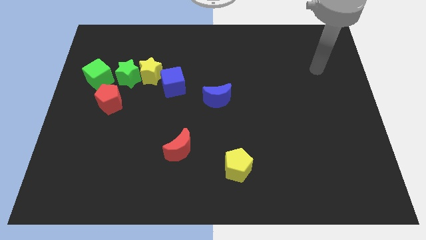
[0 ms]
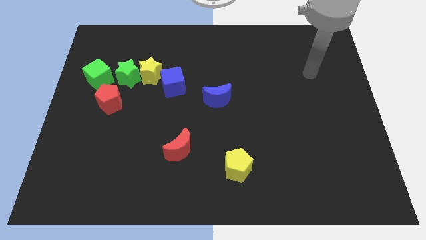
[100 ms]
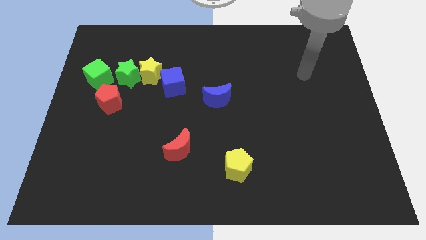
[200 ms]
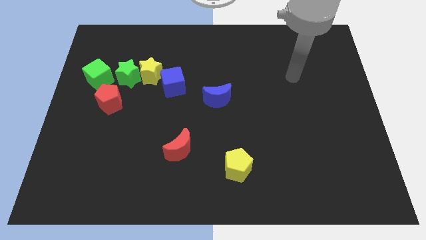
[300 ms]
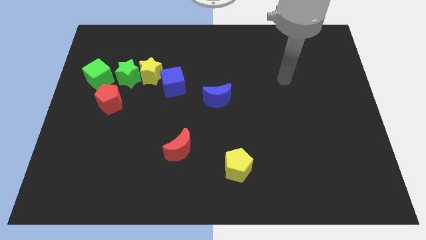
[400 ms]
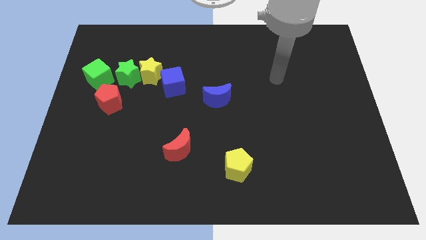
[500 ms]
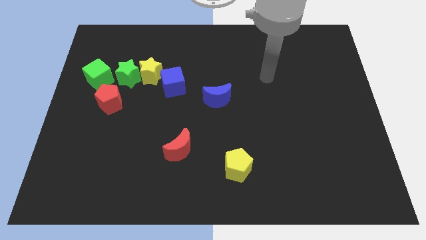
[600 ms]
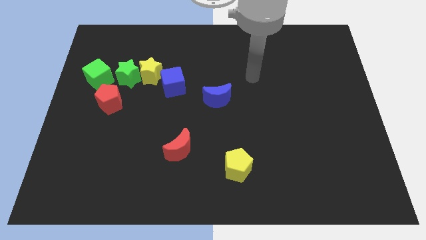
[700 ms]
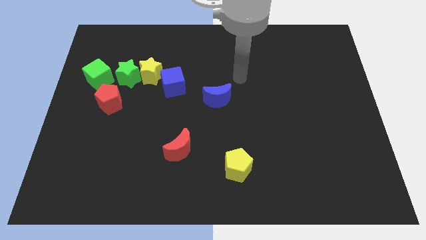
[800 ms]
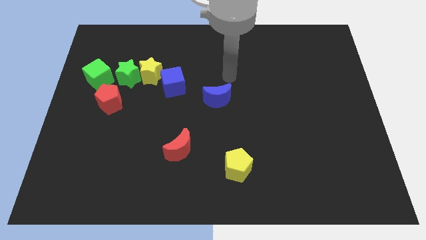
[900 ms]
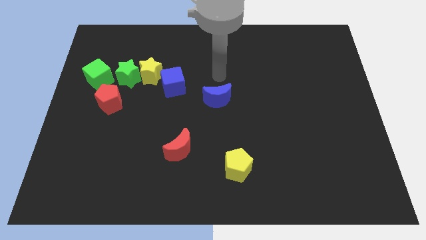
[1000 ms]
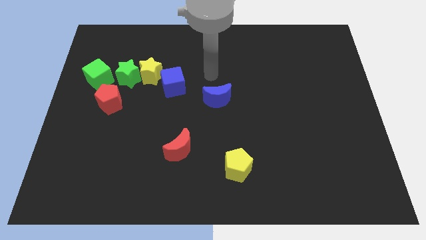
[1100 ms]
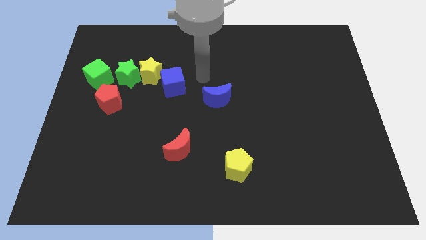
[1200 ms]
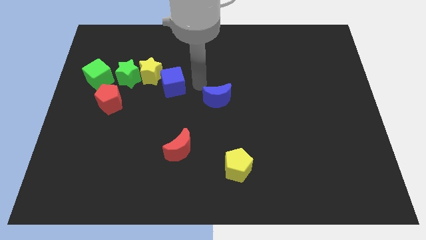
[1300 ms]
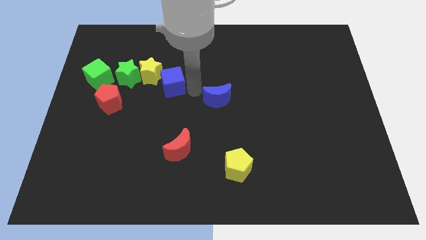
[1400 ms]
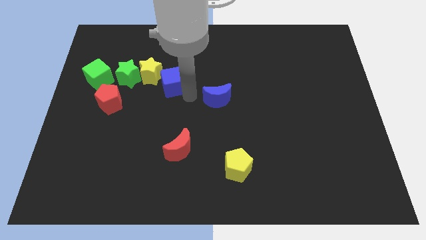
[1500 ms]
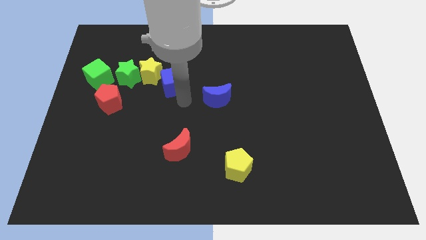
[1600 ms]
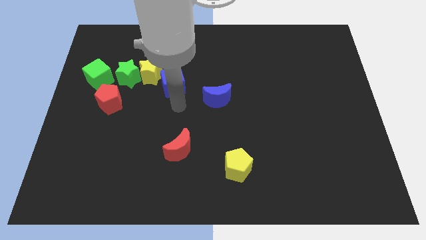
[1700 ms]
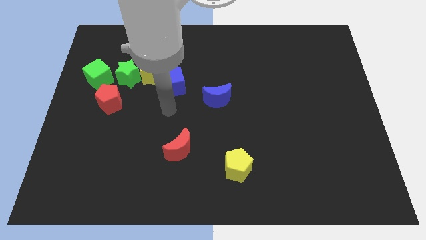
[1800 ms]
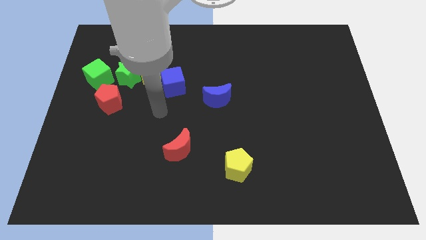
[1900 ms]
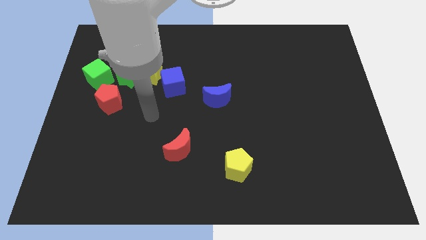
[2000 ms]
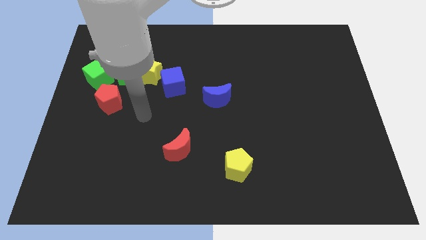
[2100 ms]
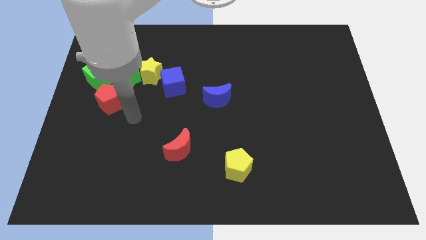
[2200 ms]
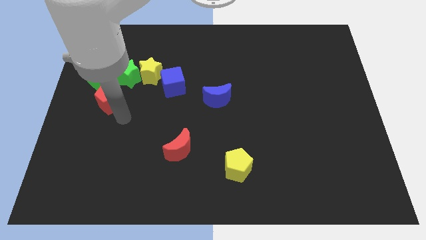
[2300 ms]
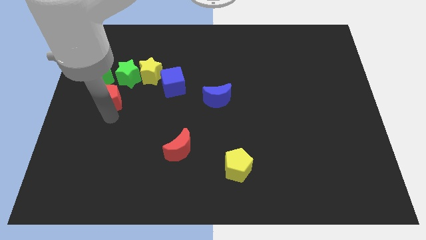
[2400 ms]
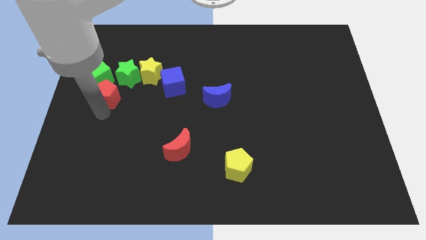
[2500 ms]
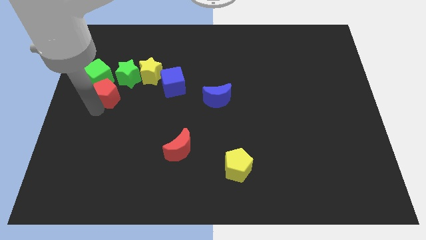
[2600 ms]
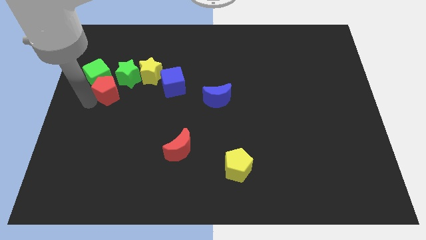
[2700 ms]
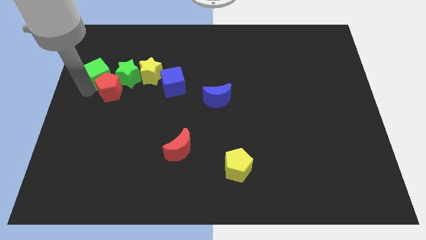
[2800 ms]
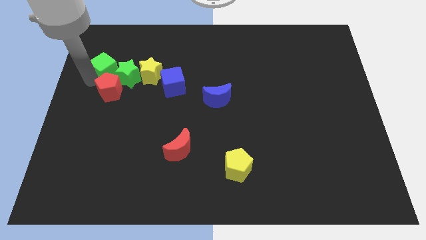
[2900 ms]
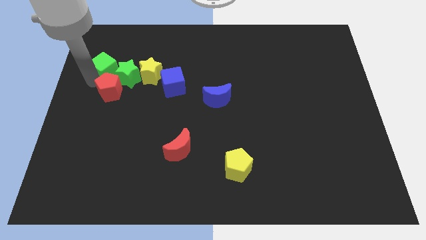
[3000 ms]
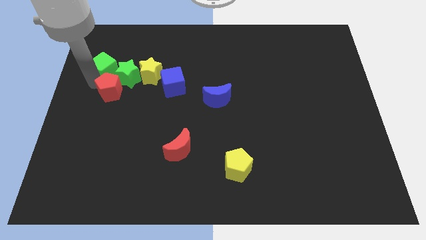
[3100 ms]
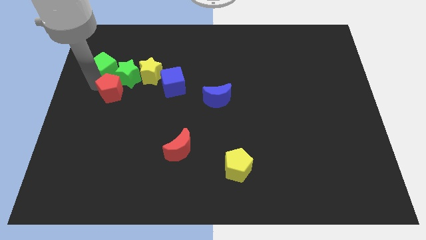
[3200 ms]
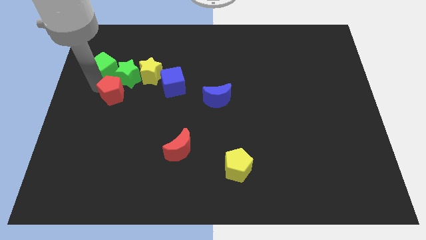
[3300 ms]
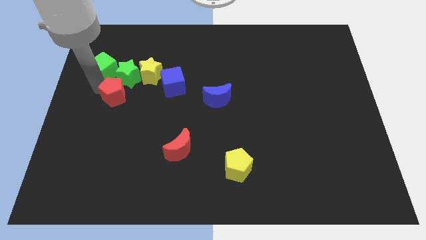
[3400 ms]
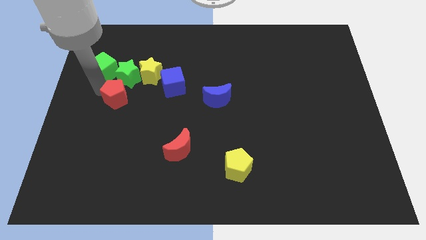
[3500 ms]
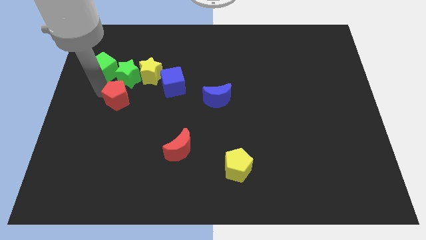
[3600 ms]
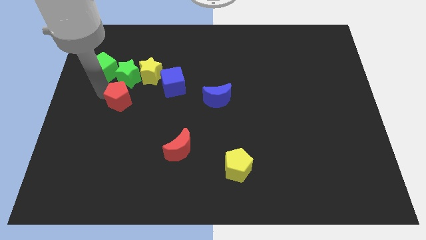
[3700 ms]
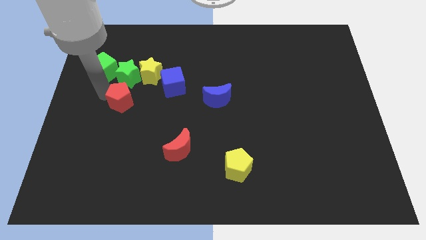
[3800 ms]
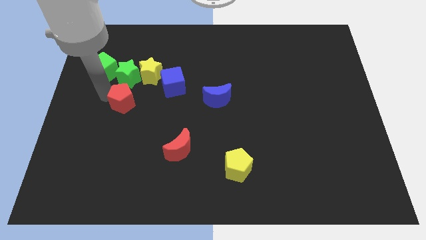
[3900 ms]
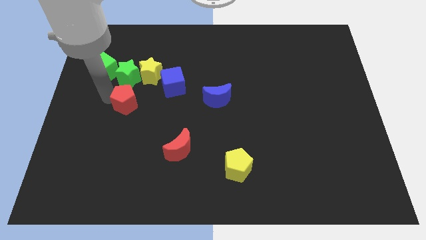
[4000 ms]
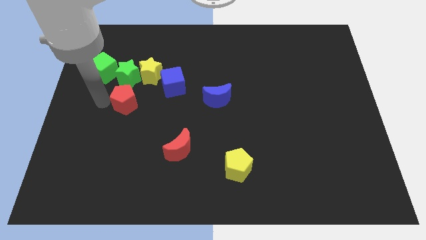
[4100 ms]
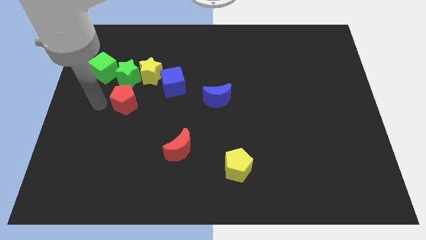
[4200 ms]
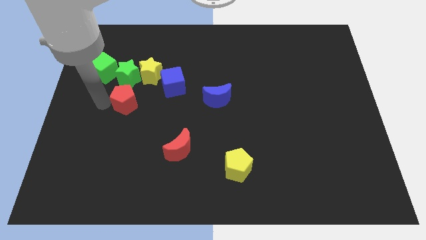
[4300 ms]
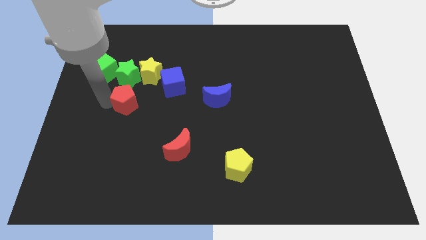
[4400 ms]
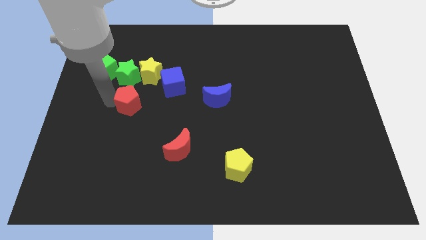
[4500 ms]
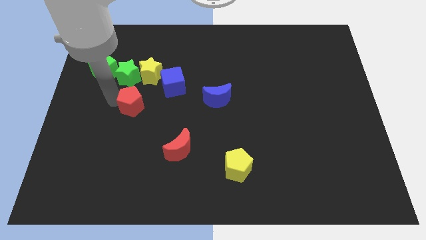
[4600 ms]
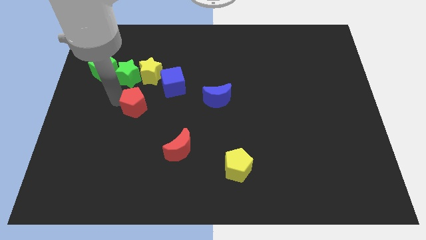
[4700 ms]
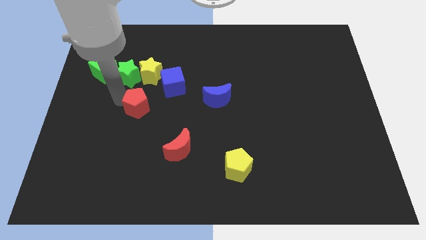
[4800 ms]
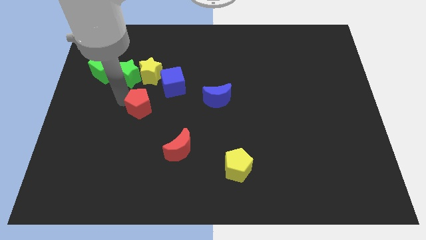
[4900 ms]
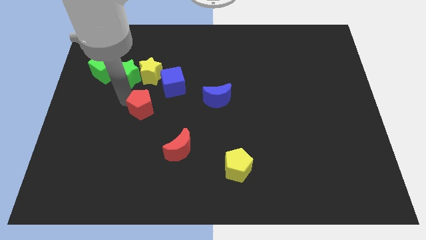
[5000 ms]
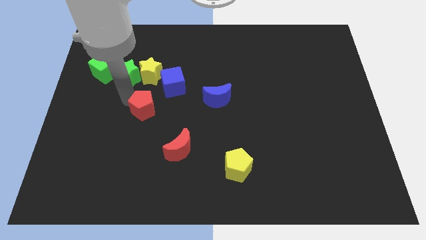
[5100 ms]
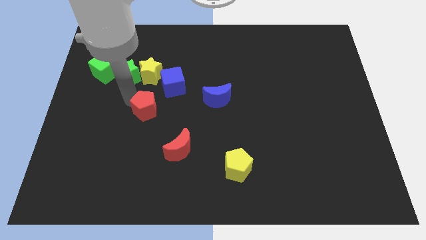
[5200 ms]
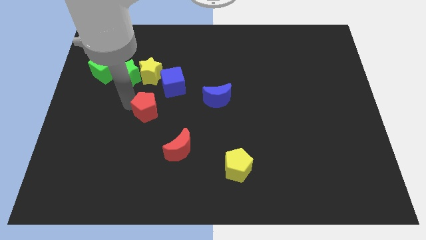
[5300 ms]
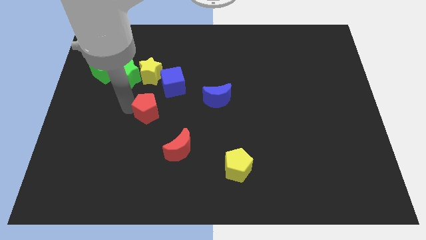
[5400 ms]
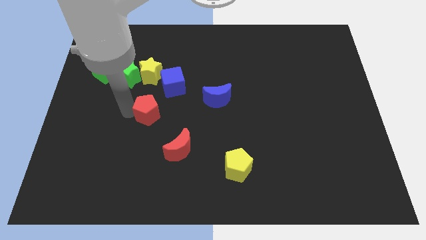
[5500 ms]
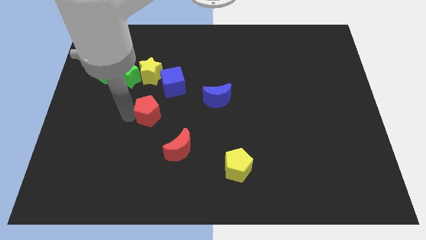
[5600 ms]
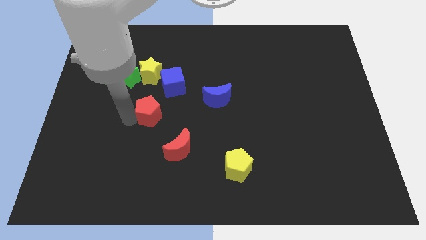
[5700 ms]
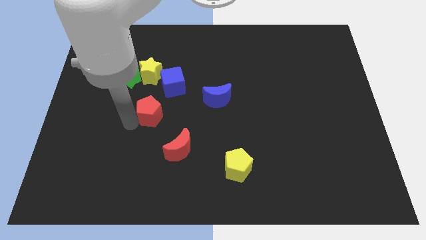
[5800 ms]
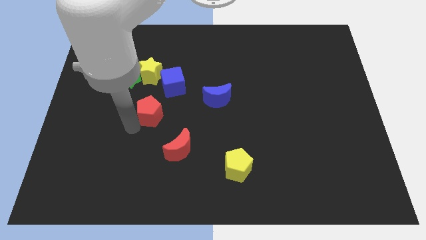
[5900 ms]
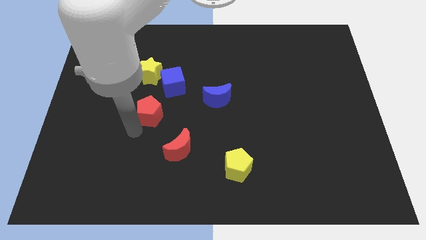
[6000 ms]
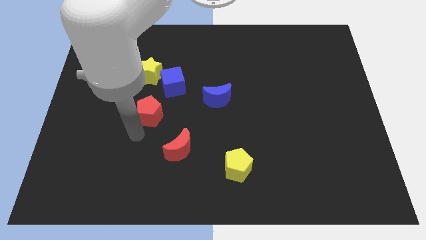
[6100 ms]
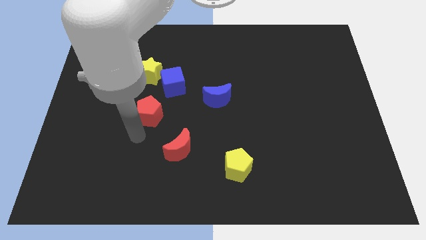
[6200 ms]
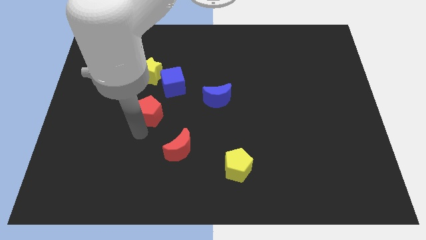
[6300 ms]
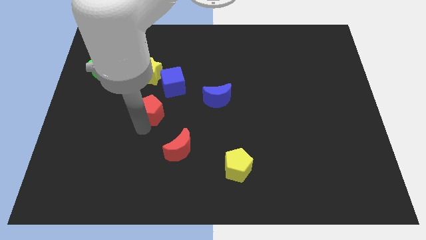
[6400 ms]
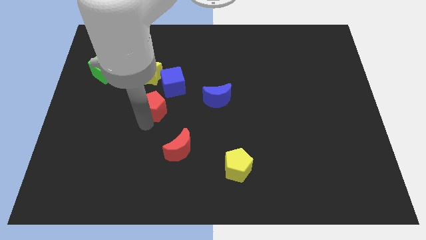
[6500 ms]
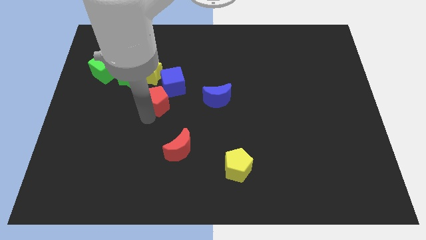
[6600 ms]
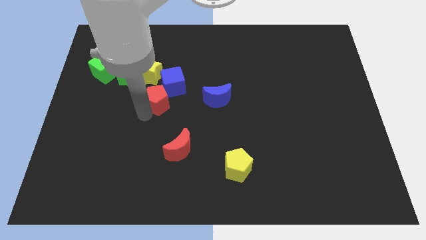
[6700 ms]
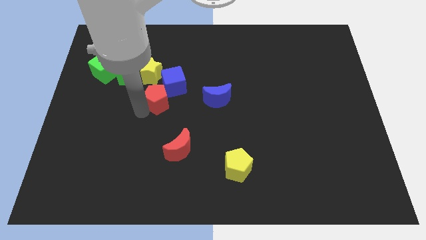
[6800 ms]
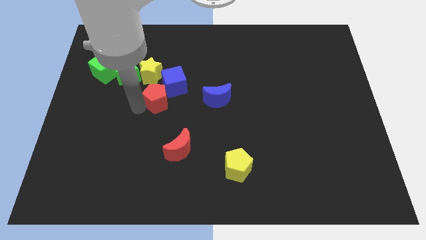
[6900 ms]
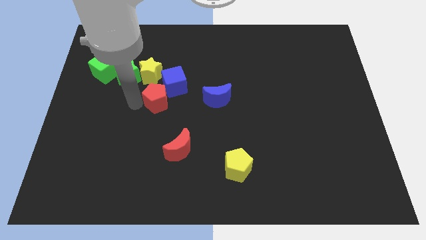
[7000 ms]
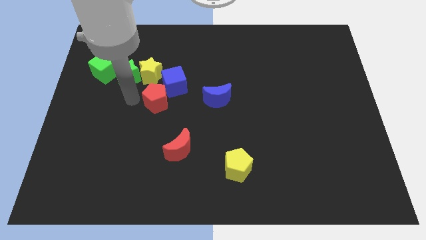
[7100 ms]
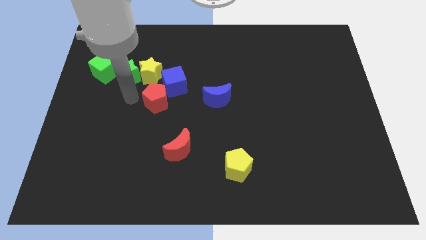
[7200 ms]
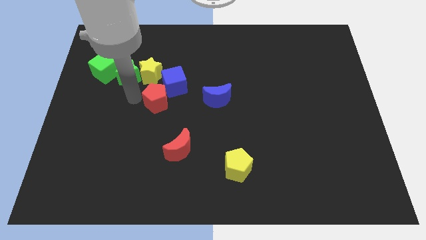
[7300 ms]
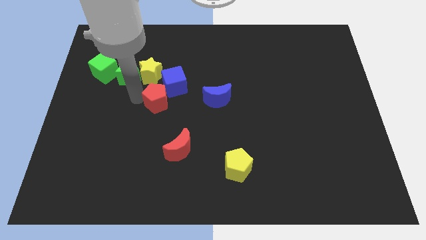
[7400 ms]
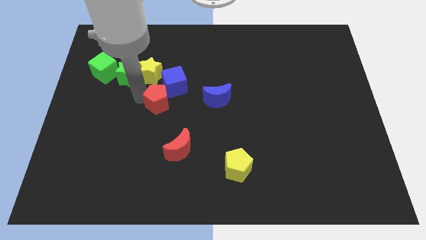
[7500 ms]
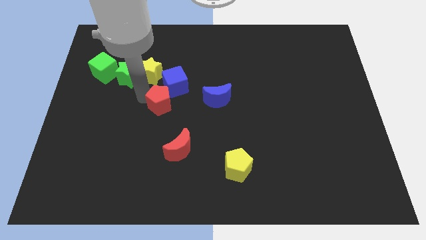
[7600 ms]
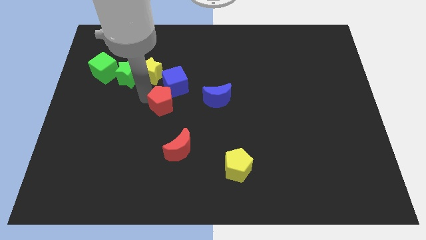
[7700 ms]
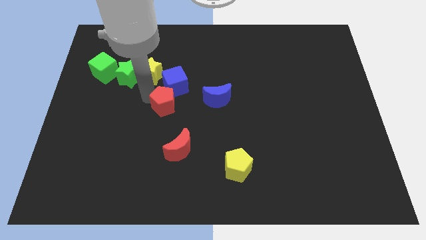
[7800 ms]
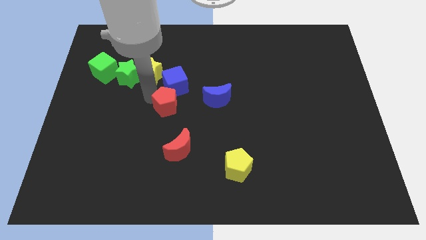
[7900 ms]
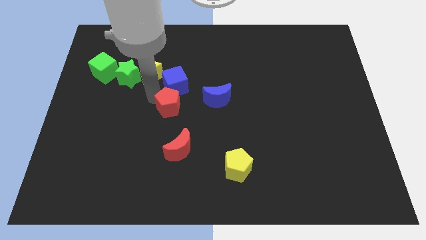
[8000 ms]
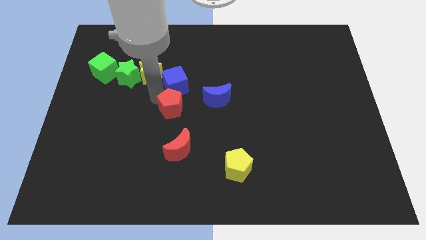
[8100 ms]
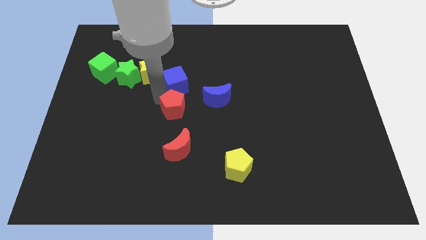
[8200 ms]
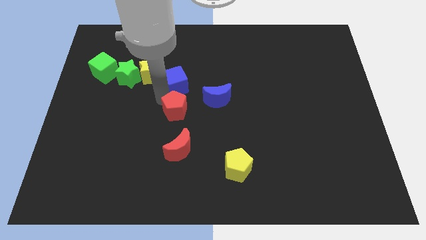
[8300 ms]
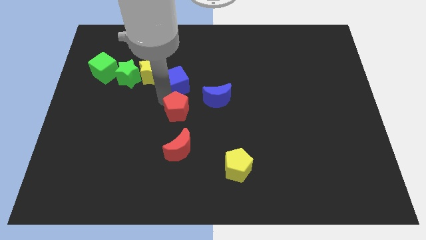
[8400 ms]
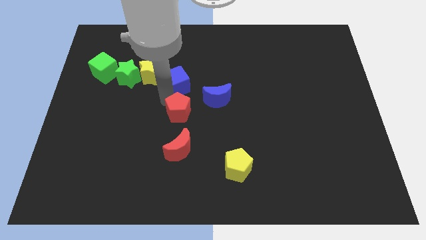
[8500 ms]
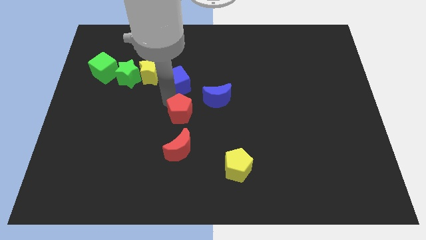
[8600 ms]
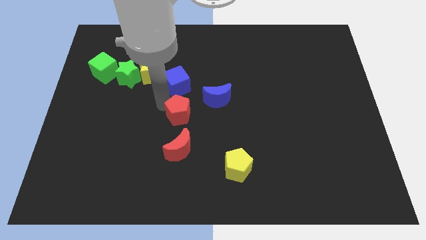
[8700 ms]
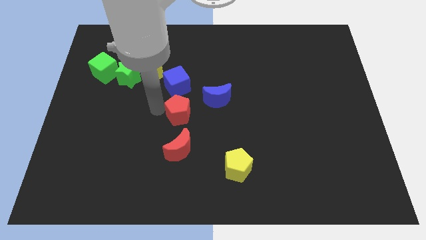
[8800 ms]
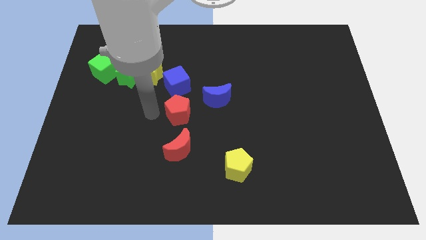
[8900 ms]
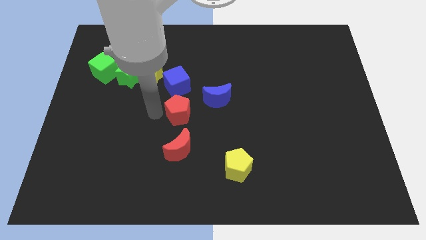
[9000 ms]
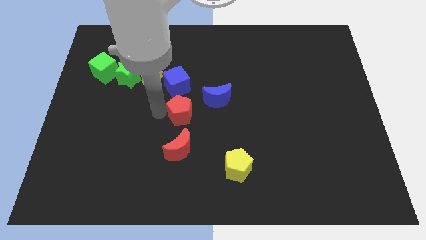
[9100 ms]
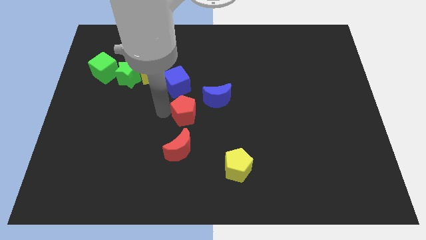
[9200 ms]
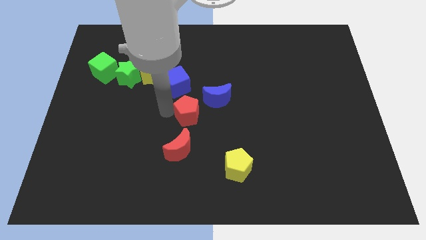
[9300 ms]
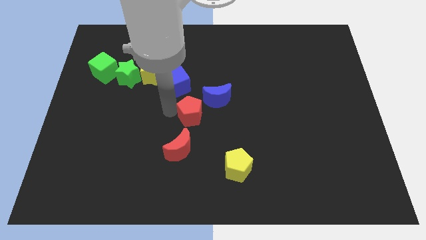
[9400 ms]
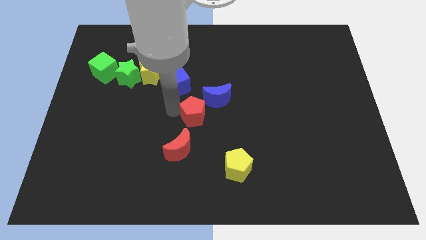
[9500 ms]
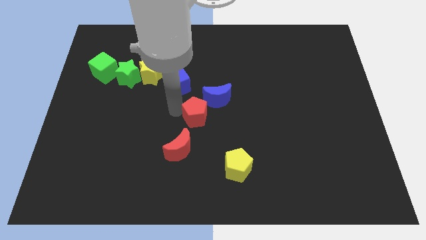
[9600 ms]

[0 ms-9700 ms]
push the red pentagon right
